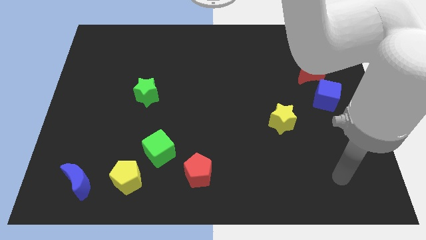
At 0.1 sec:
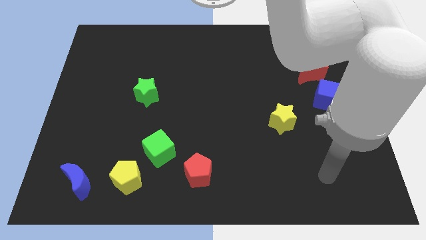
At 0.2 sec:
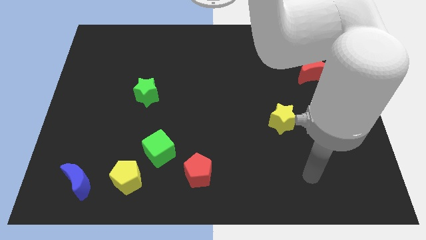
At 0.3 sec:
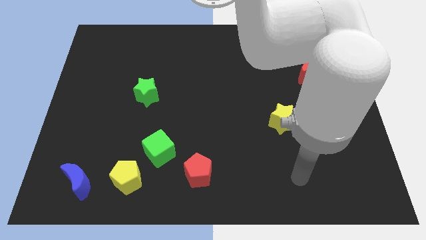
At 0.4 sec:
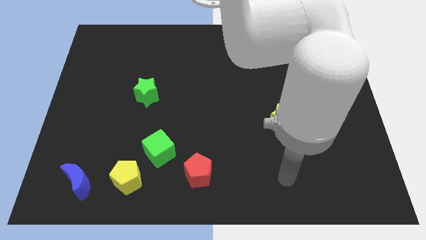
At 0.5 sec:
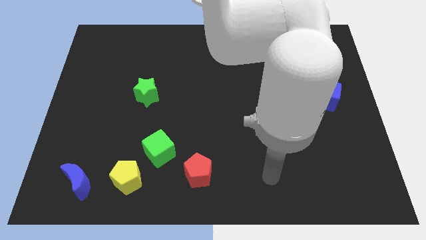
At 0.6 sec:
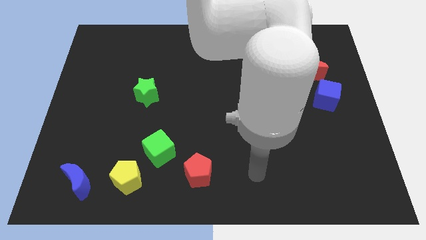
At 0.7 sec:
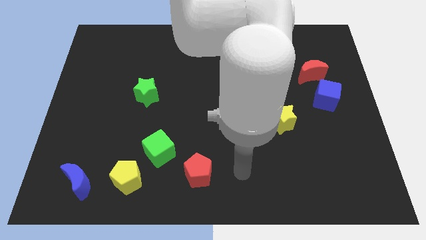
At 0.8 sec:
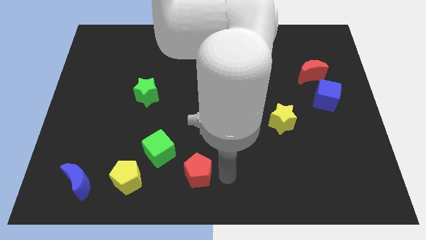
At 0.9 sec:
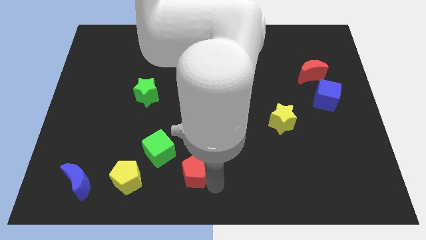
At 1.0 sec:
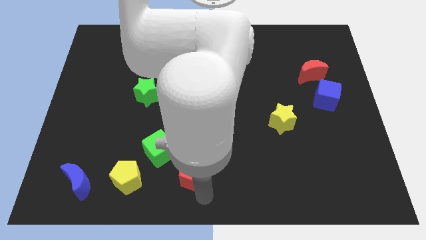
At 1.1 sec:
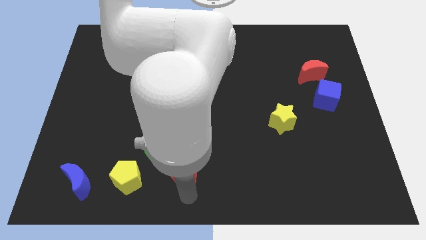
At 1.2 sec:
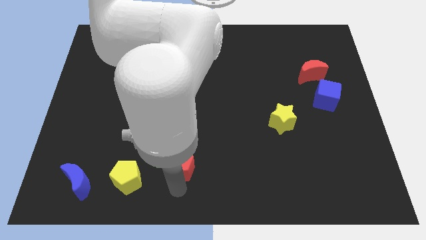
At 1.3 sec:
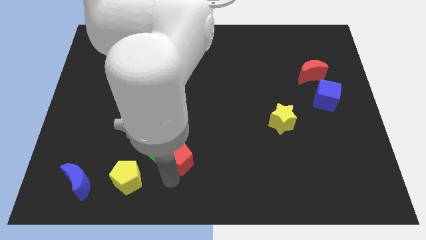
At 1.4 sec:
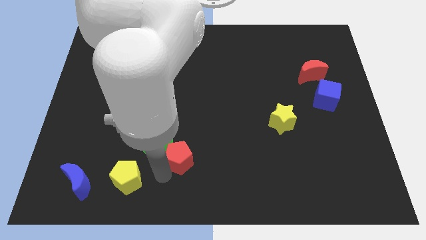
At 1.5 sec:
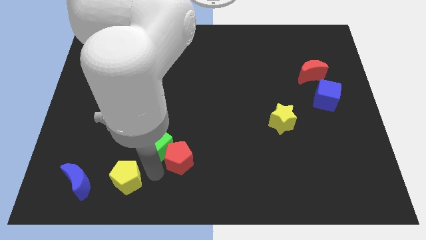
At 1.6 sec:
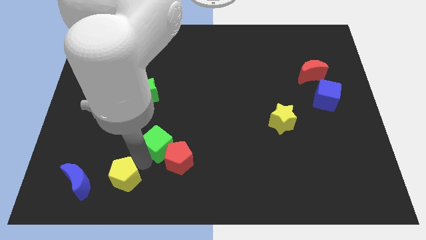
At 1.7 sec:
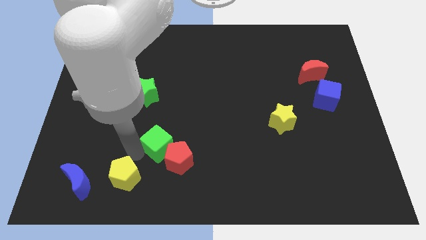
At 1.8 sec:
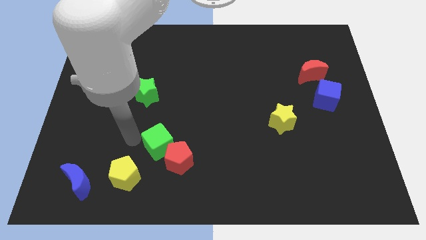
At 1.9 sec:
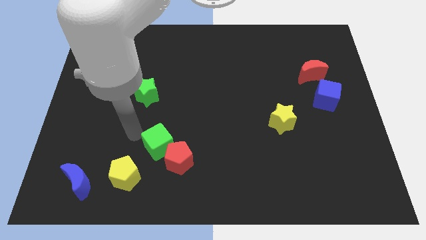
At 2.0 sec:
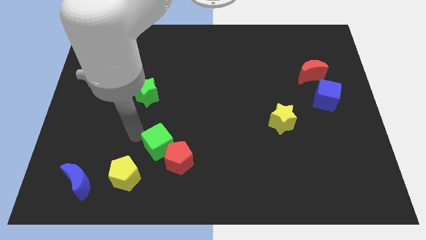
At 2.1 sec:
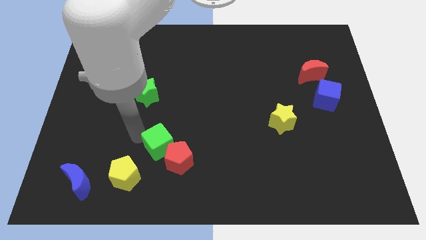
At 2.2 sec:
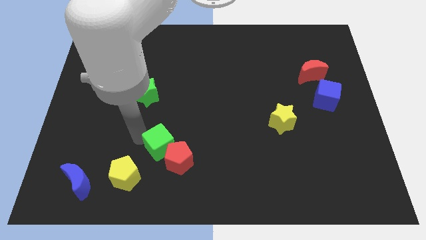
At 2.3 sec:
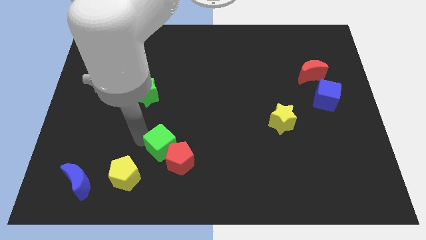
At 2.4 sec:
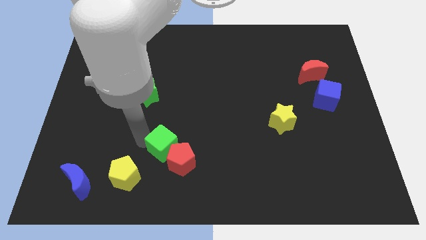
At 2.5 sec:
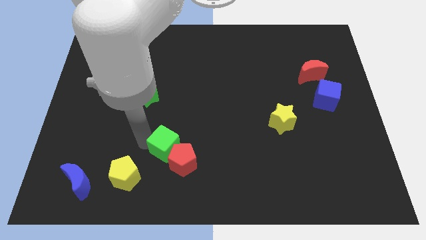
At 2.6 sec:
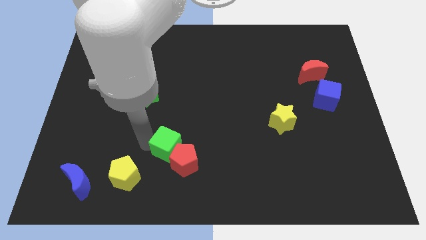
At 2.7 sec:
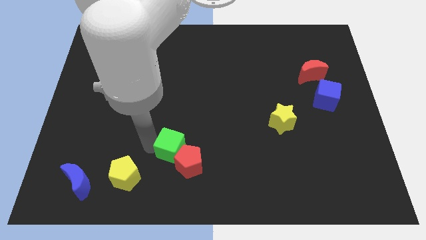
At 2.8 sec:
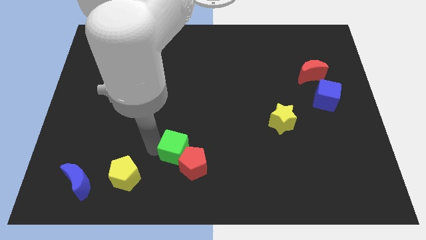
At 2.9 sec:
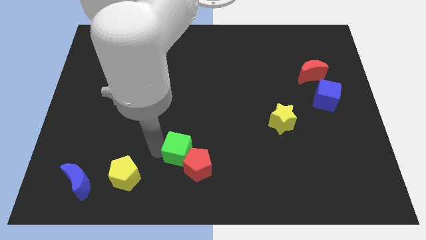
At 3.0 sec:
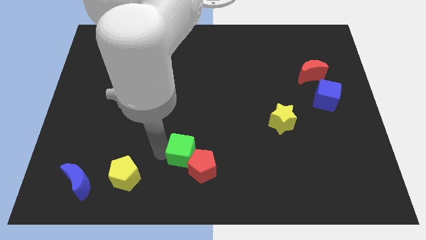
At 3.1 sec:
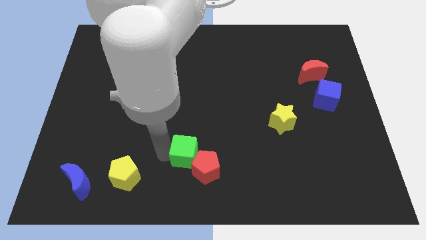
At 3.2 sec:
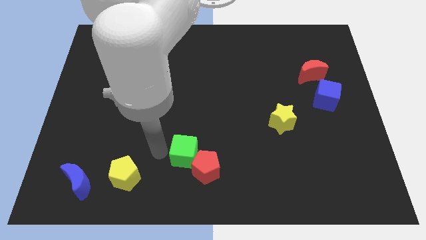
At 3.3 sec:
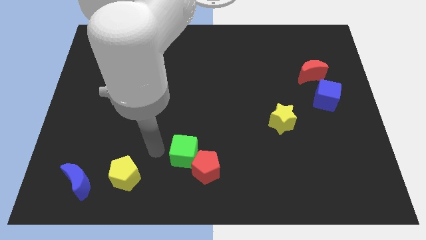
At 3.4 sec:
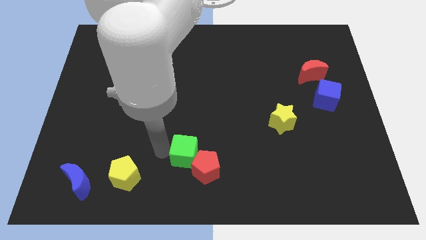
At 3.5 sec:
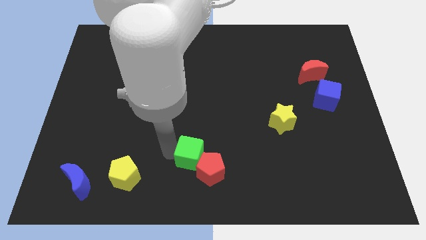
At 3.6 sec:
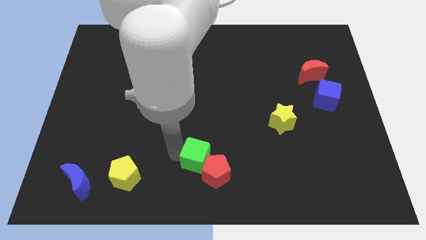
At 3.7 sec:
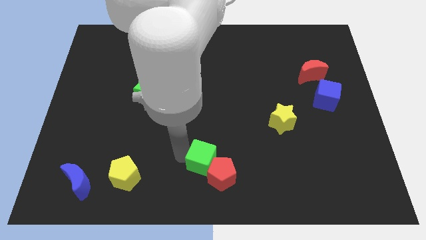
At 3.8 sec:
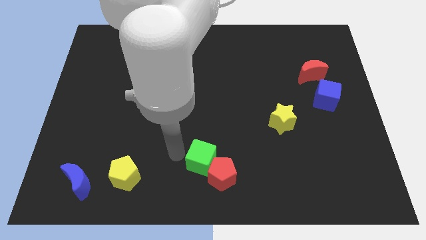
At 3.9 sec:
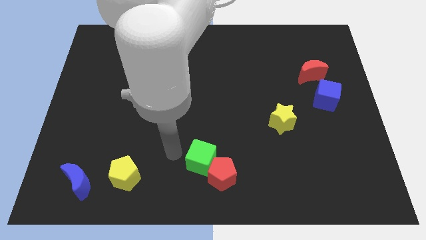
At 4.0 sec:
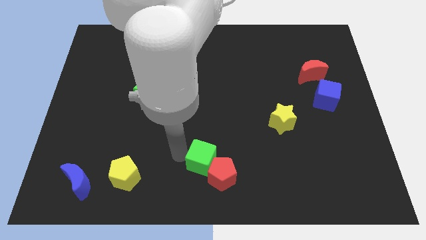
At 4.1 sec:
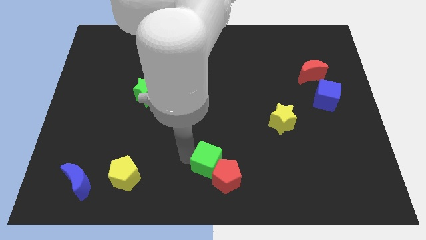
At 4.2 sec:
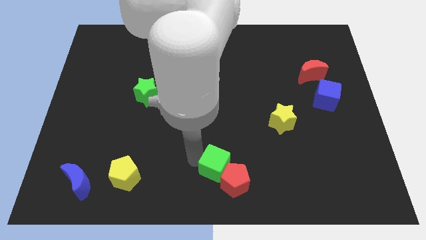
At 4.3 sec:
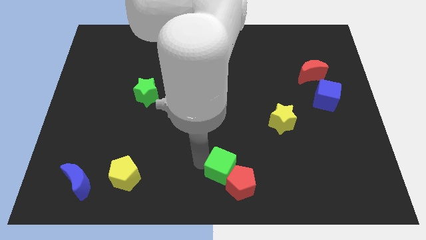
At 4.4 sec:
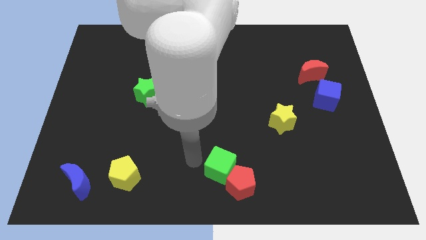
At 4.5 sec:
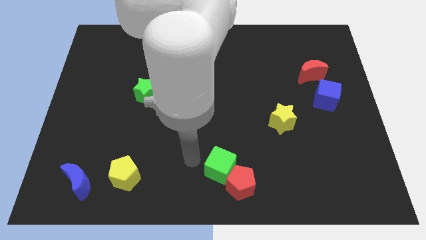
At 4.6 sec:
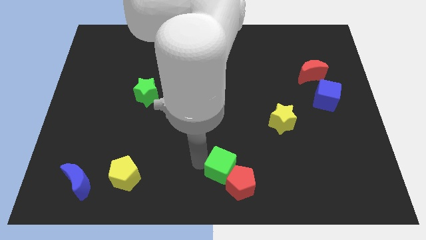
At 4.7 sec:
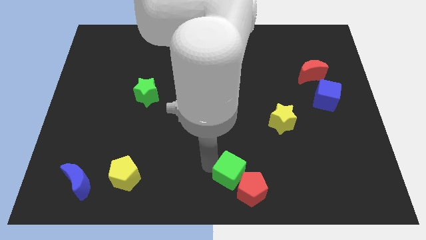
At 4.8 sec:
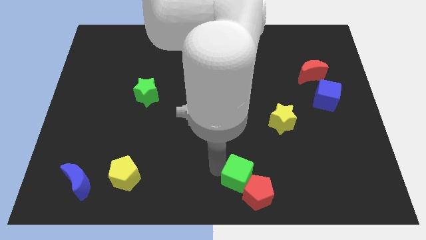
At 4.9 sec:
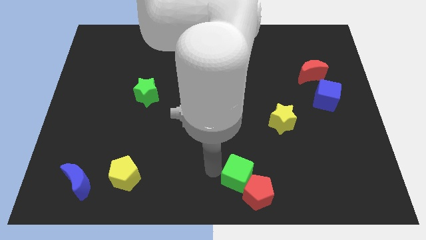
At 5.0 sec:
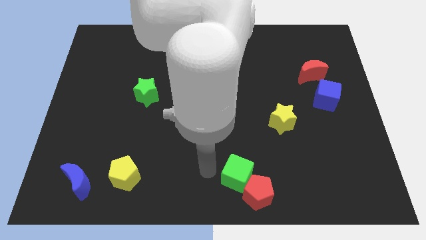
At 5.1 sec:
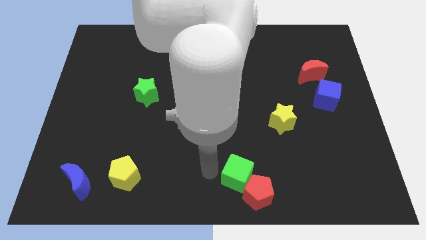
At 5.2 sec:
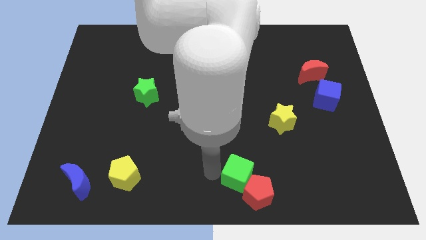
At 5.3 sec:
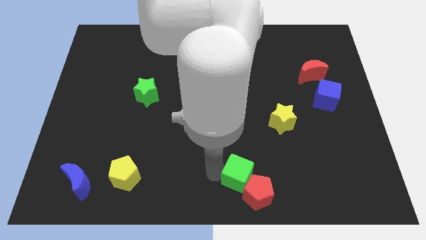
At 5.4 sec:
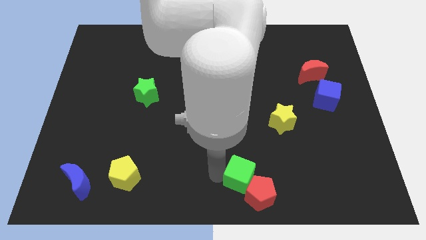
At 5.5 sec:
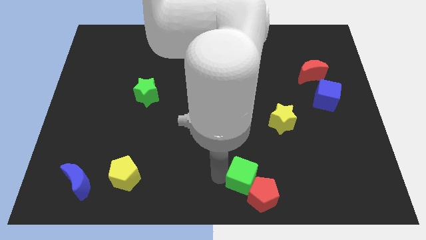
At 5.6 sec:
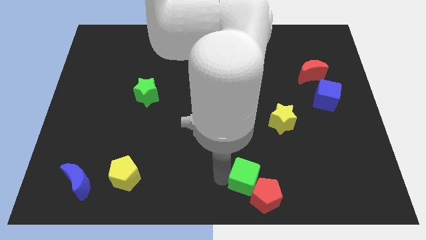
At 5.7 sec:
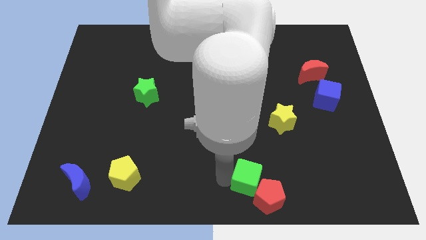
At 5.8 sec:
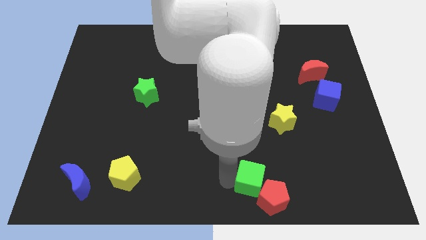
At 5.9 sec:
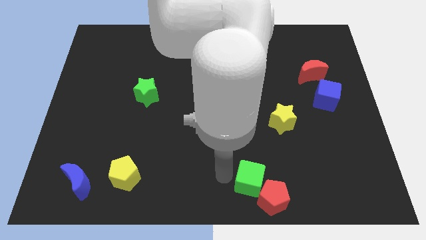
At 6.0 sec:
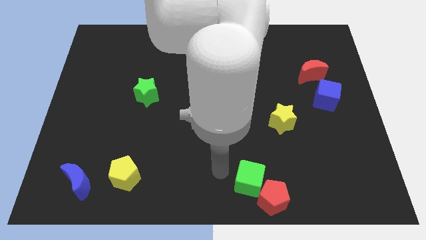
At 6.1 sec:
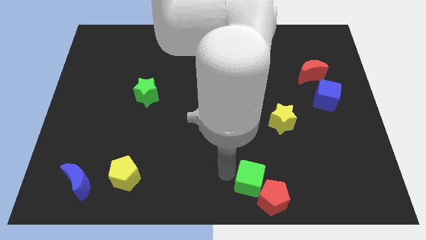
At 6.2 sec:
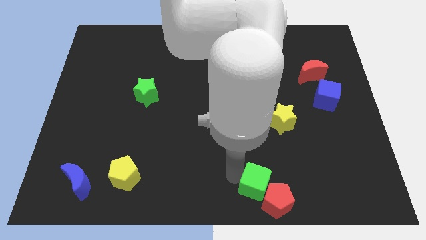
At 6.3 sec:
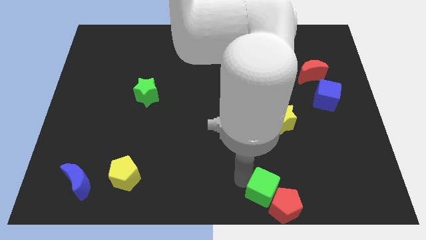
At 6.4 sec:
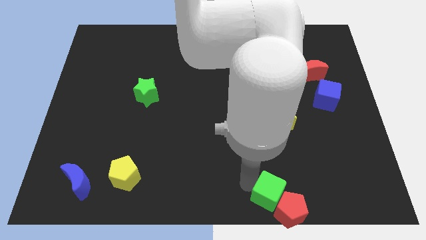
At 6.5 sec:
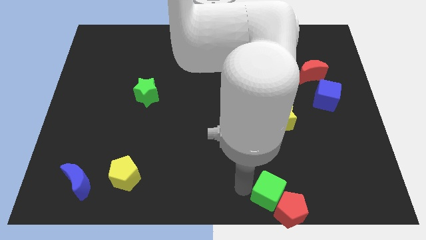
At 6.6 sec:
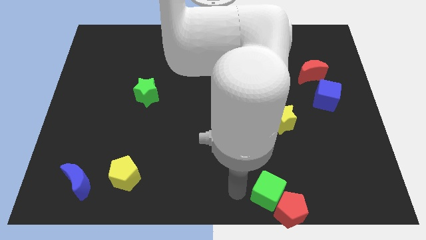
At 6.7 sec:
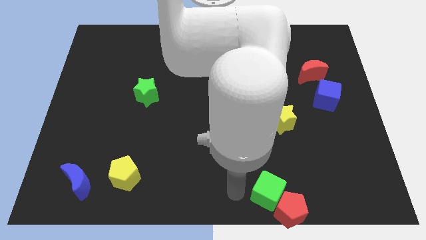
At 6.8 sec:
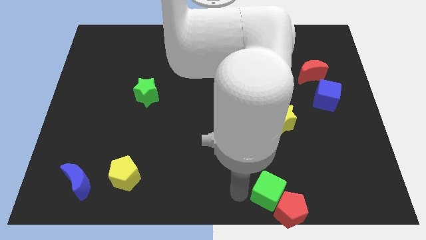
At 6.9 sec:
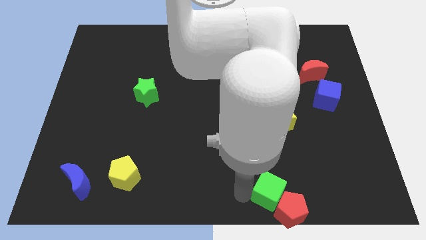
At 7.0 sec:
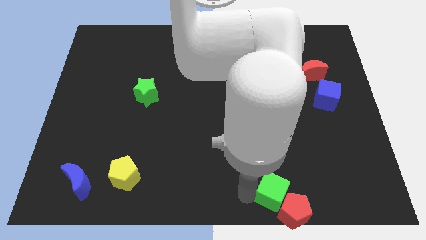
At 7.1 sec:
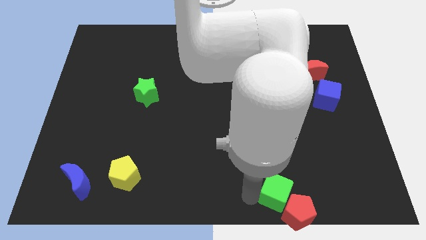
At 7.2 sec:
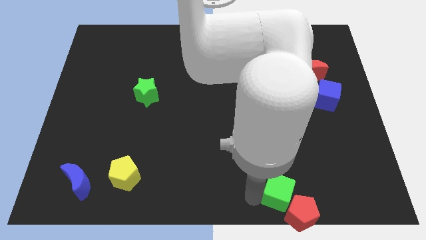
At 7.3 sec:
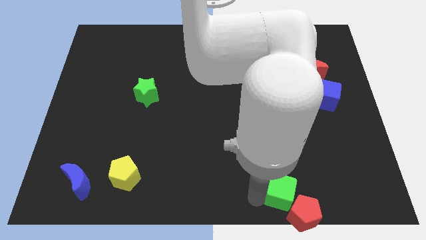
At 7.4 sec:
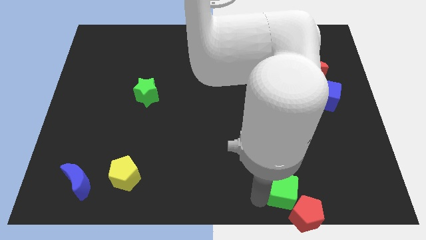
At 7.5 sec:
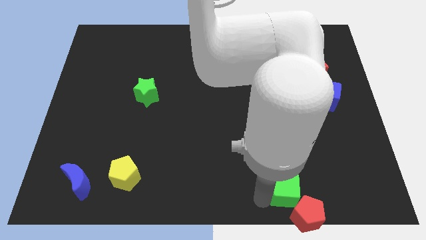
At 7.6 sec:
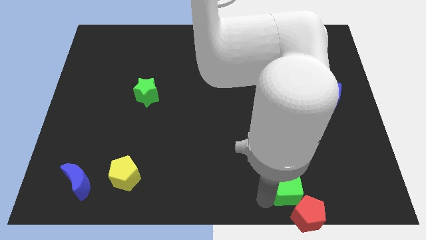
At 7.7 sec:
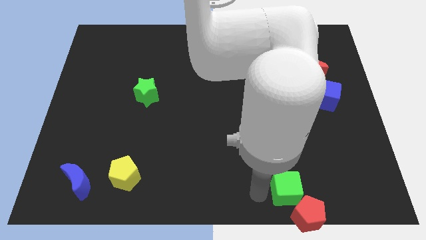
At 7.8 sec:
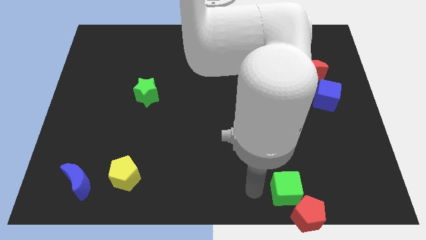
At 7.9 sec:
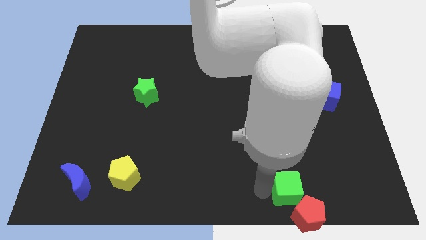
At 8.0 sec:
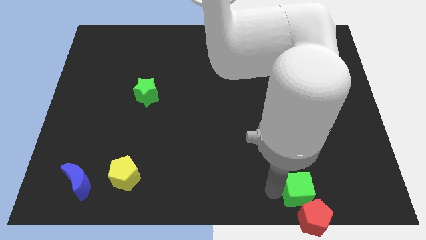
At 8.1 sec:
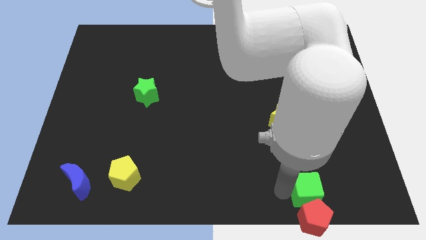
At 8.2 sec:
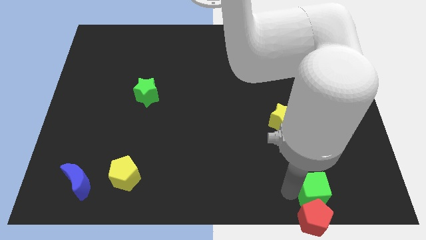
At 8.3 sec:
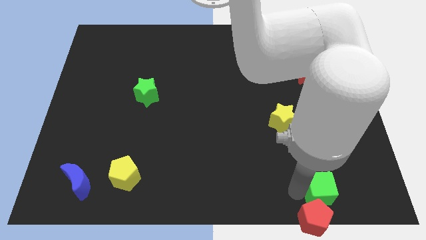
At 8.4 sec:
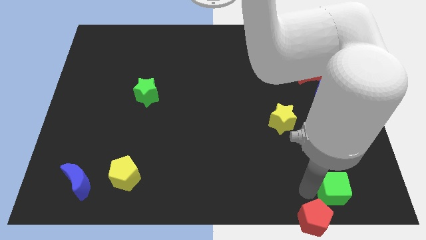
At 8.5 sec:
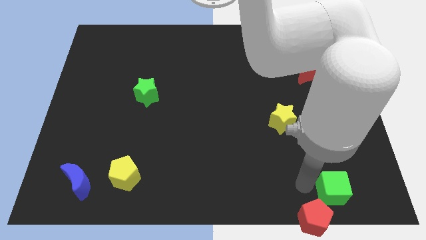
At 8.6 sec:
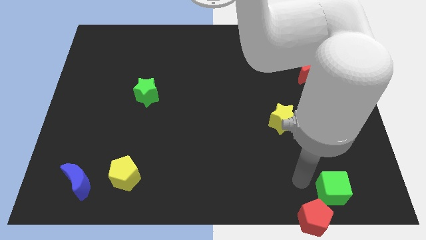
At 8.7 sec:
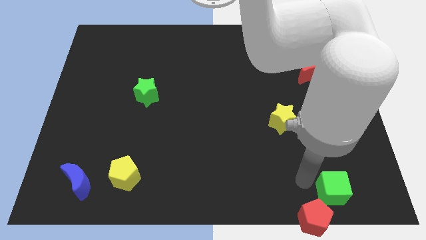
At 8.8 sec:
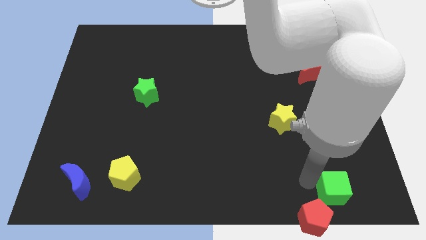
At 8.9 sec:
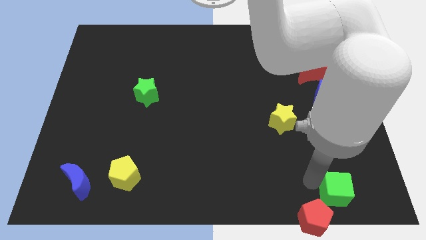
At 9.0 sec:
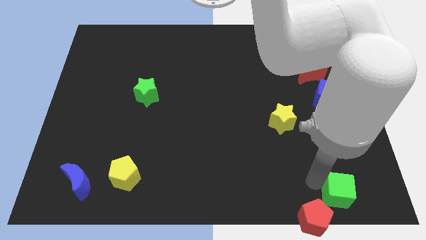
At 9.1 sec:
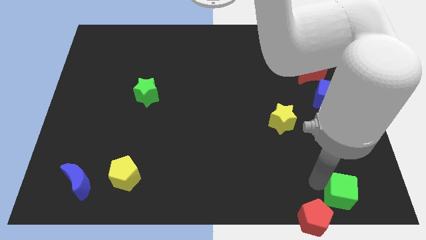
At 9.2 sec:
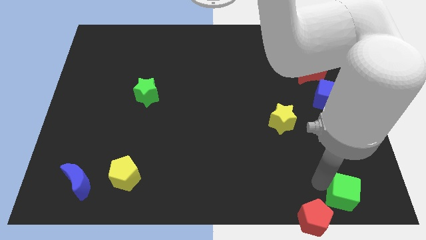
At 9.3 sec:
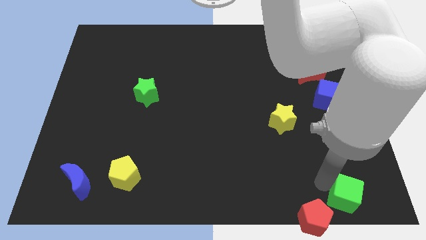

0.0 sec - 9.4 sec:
push the green cube to the bottom right of the board
